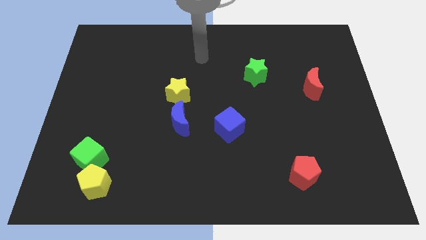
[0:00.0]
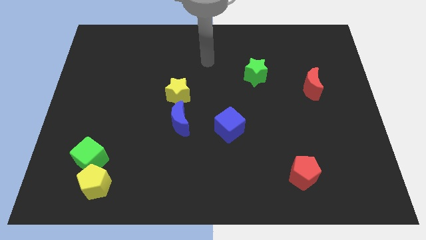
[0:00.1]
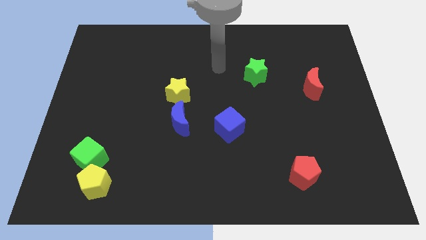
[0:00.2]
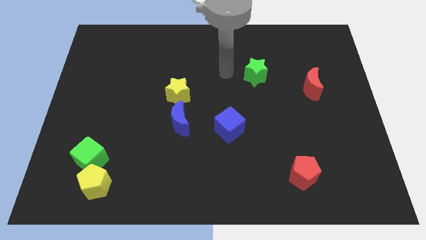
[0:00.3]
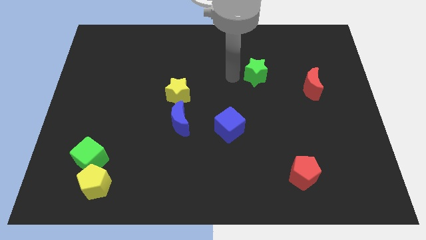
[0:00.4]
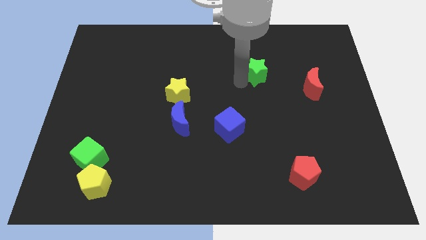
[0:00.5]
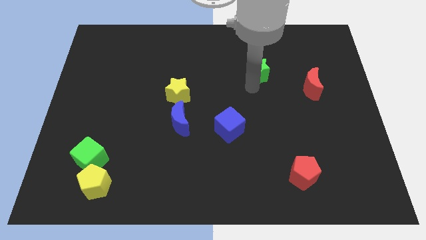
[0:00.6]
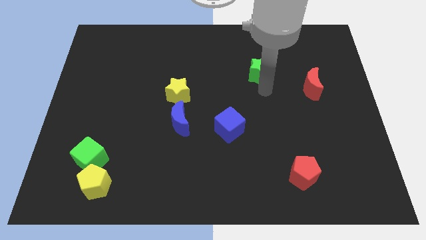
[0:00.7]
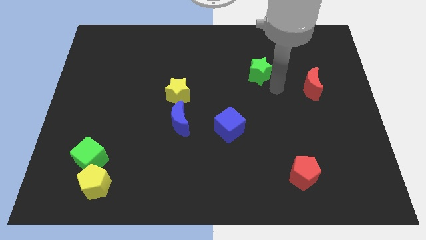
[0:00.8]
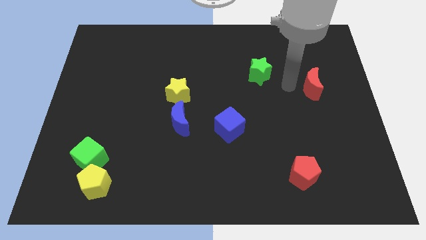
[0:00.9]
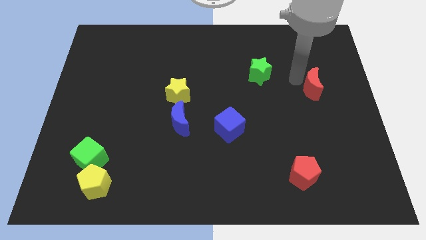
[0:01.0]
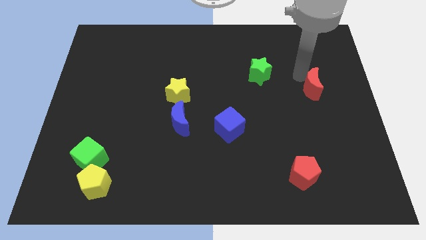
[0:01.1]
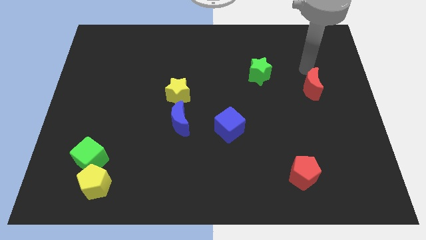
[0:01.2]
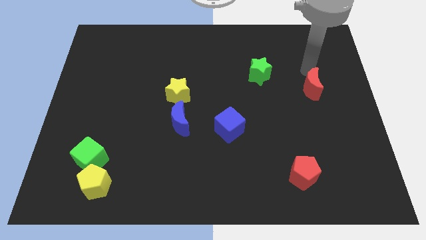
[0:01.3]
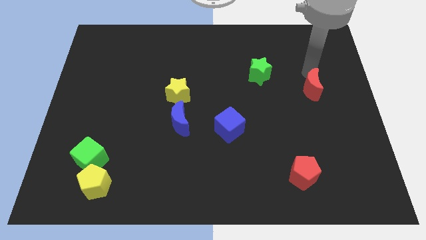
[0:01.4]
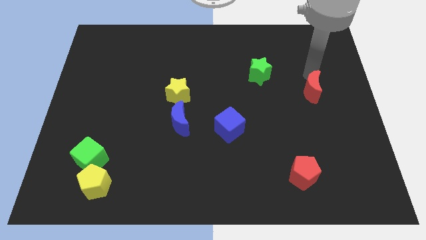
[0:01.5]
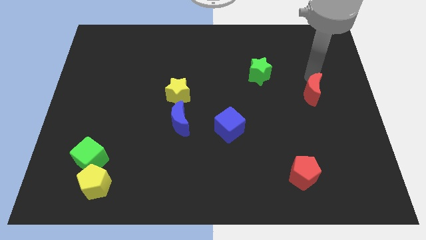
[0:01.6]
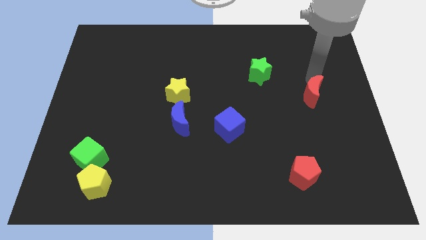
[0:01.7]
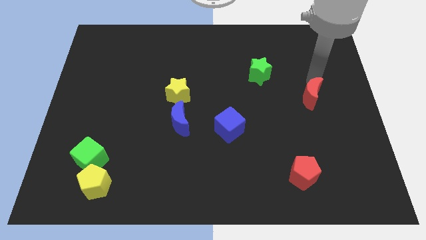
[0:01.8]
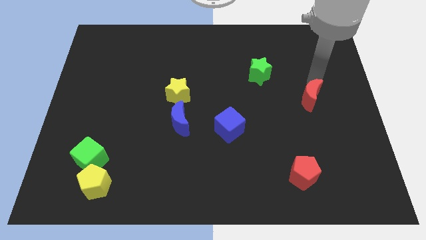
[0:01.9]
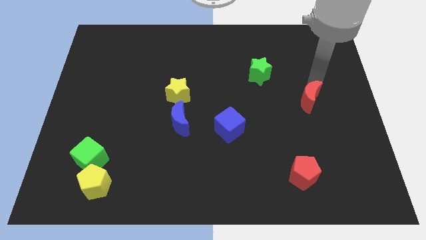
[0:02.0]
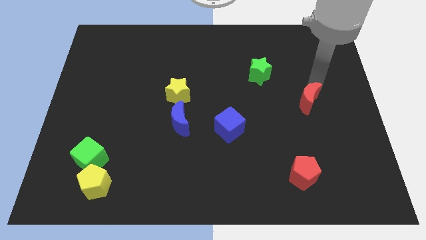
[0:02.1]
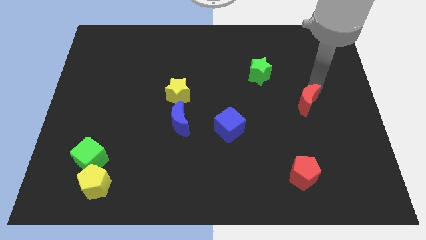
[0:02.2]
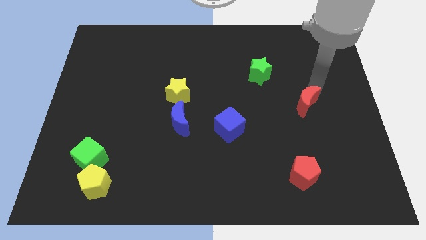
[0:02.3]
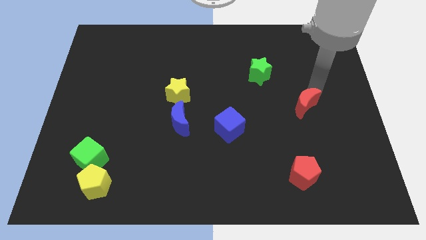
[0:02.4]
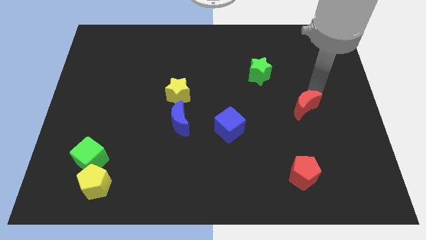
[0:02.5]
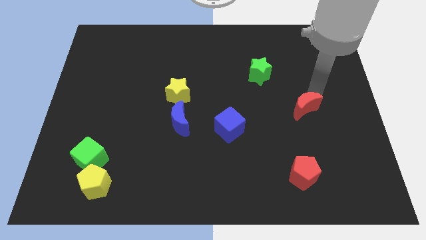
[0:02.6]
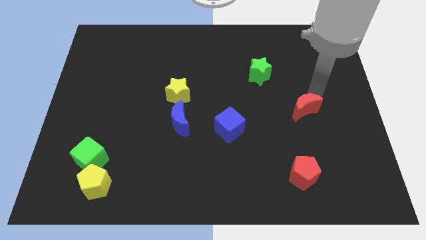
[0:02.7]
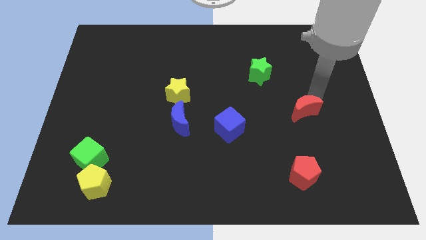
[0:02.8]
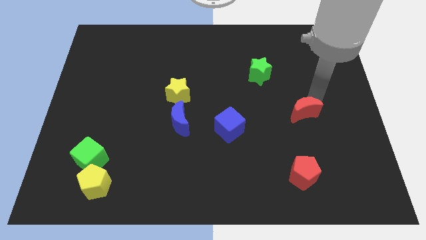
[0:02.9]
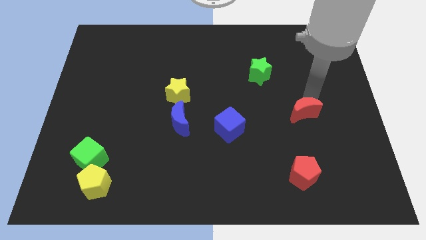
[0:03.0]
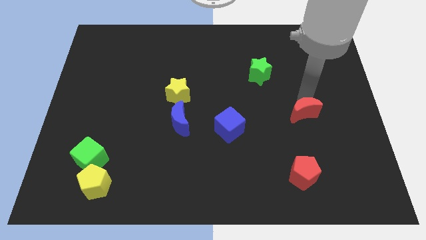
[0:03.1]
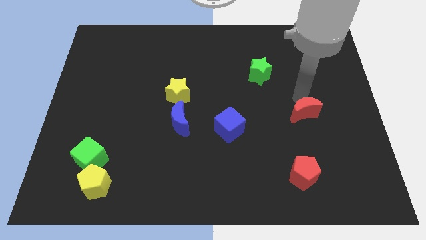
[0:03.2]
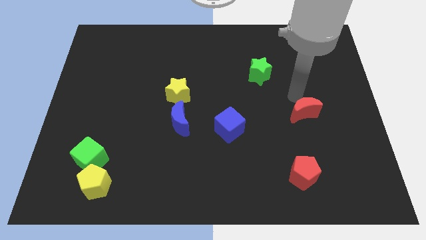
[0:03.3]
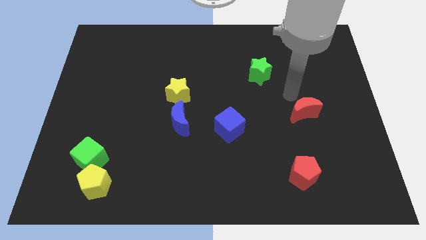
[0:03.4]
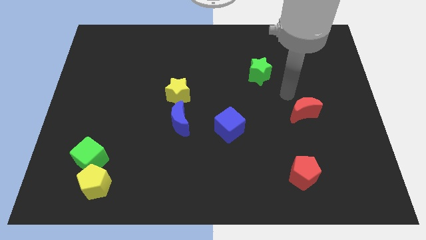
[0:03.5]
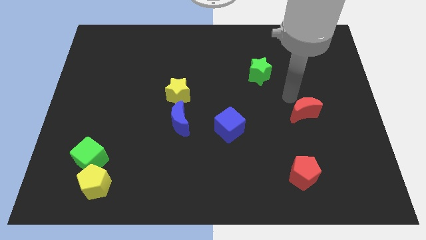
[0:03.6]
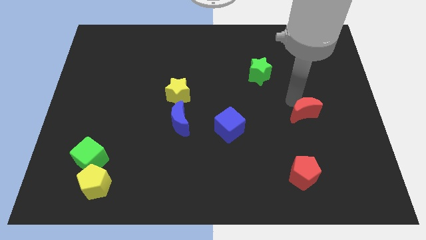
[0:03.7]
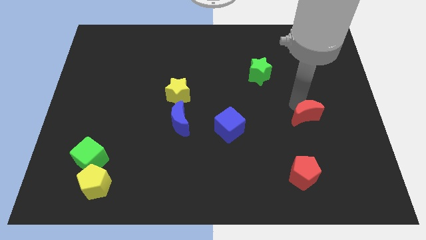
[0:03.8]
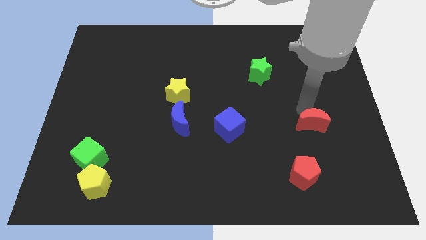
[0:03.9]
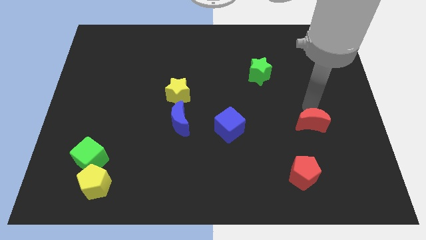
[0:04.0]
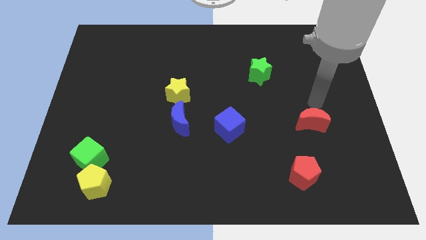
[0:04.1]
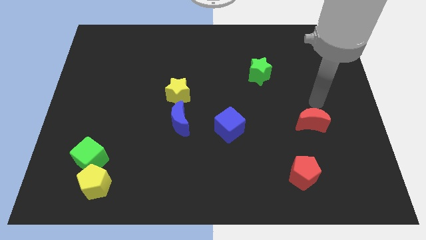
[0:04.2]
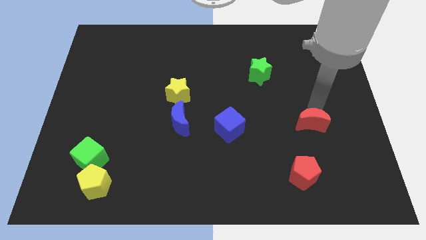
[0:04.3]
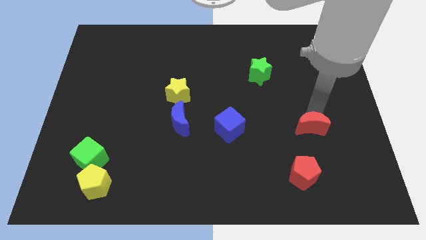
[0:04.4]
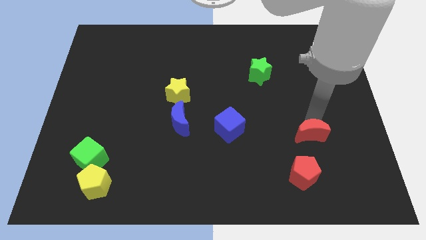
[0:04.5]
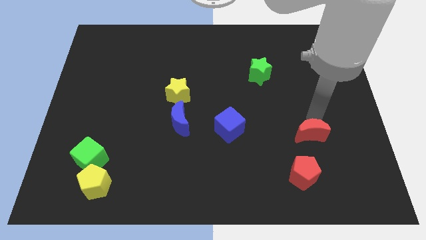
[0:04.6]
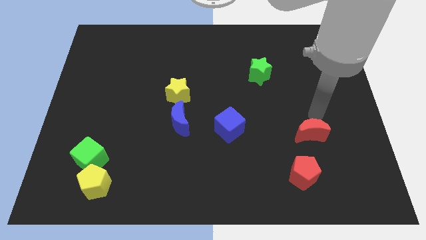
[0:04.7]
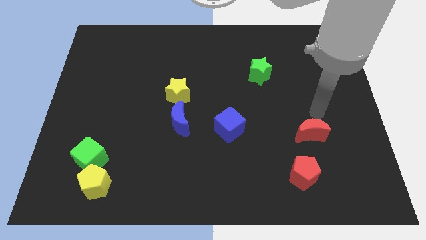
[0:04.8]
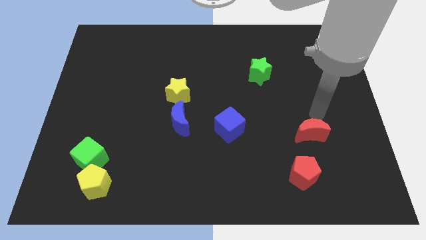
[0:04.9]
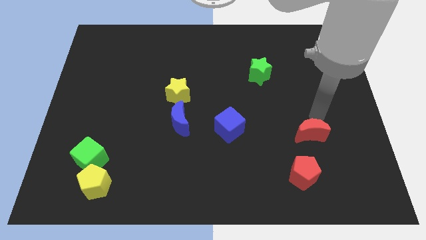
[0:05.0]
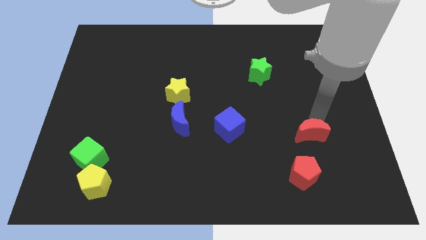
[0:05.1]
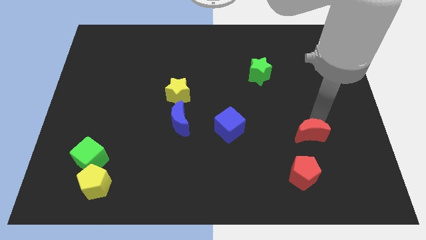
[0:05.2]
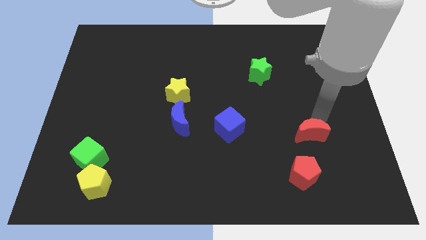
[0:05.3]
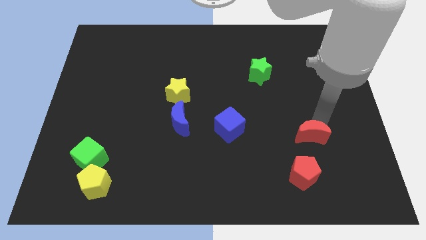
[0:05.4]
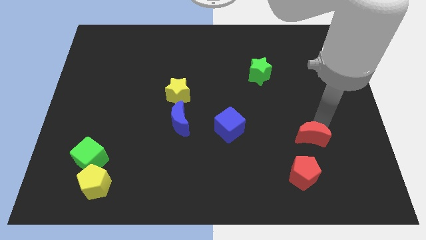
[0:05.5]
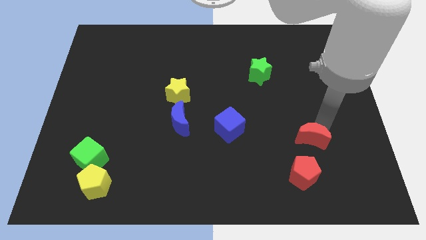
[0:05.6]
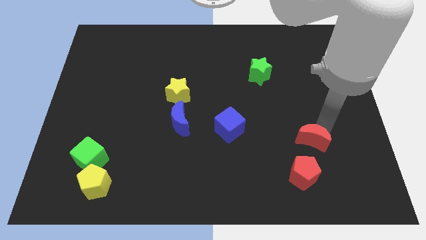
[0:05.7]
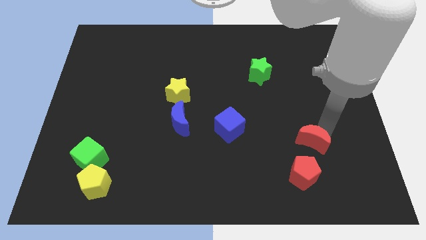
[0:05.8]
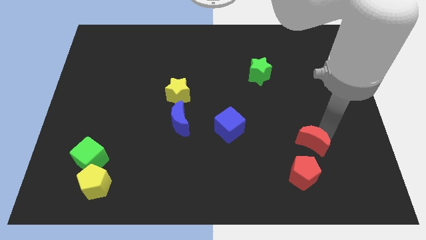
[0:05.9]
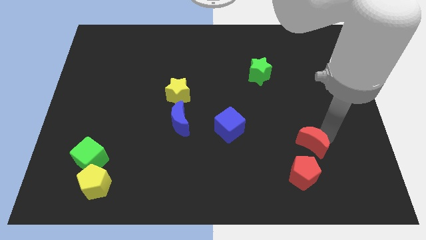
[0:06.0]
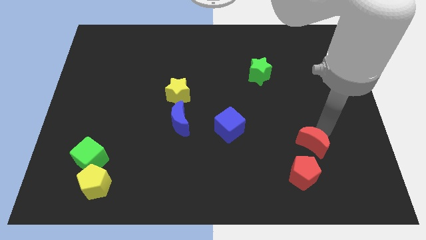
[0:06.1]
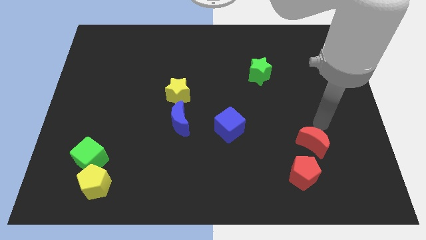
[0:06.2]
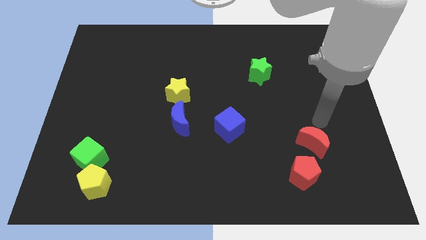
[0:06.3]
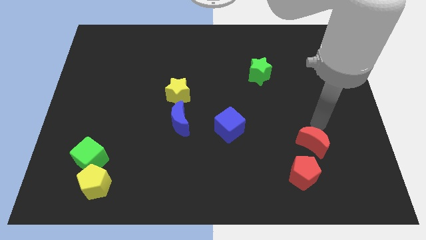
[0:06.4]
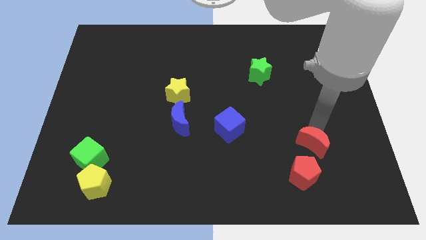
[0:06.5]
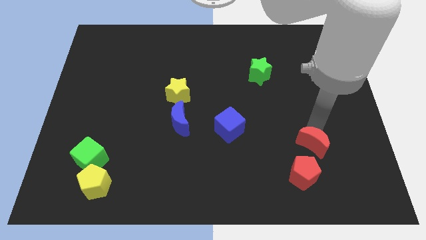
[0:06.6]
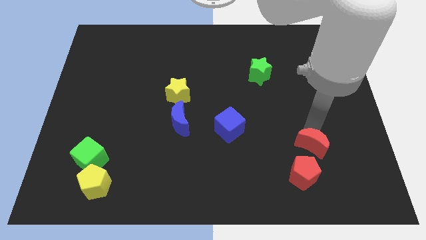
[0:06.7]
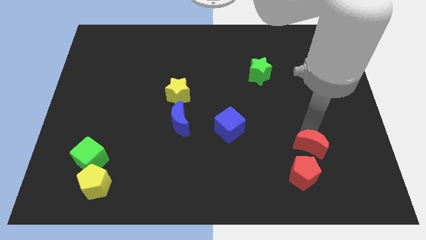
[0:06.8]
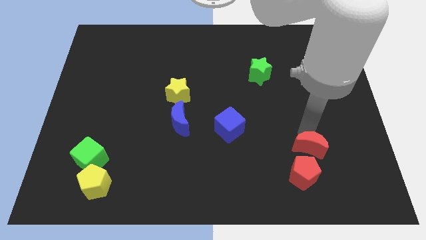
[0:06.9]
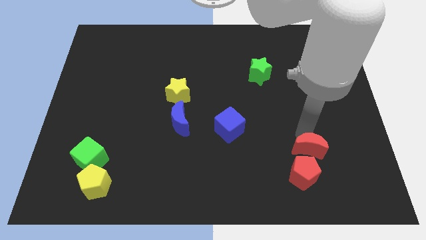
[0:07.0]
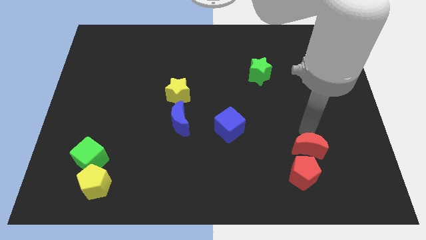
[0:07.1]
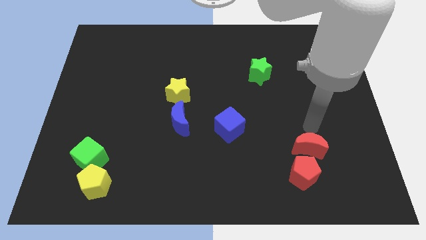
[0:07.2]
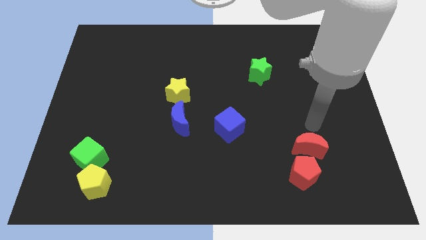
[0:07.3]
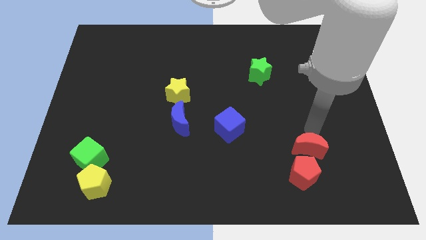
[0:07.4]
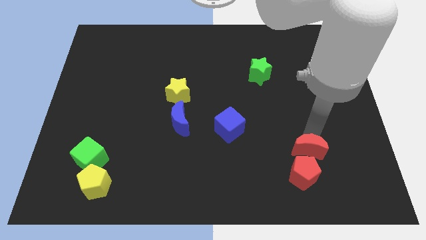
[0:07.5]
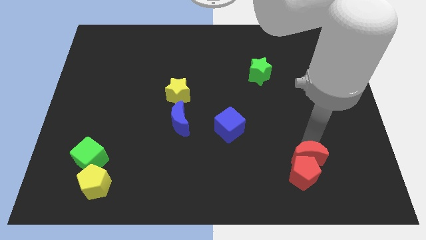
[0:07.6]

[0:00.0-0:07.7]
put the red moon to the red pentagon
